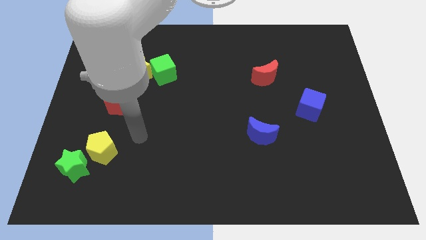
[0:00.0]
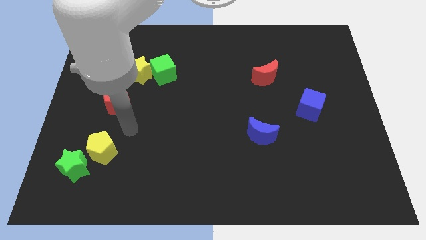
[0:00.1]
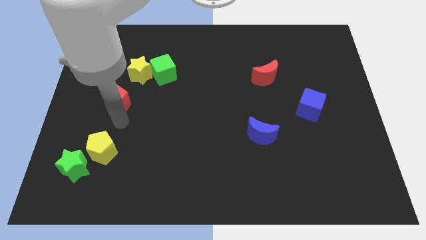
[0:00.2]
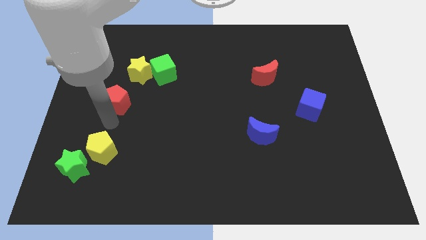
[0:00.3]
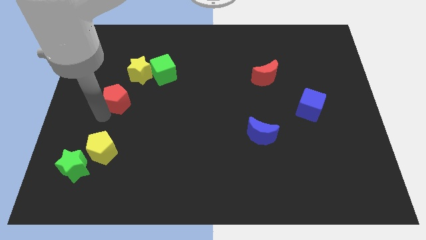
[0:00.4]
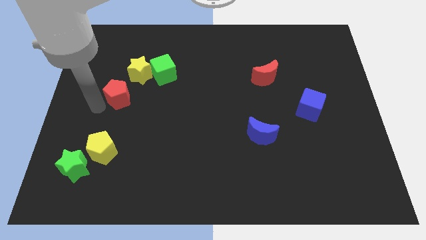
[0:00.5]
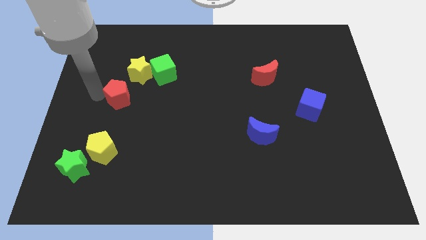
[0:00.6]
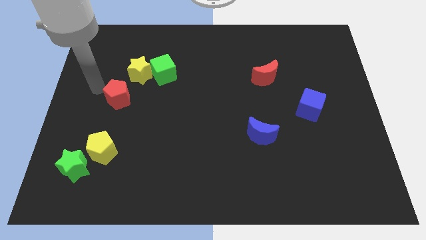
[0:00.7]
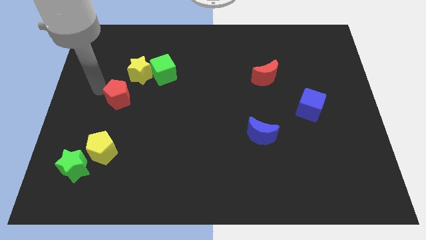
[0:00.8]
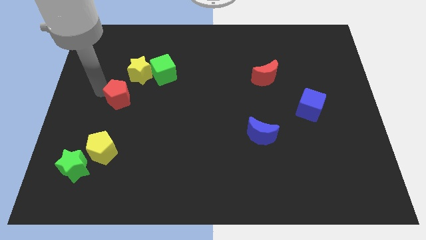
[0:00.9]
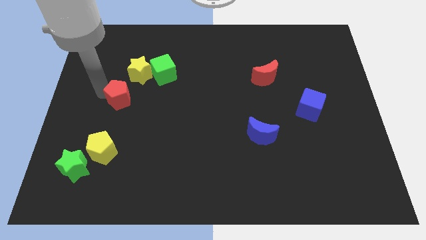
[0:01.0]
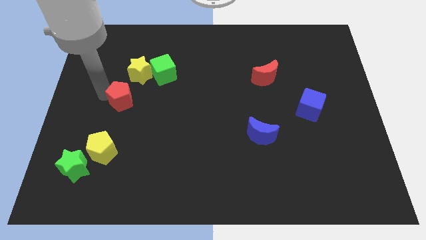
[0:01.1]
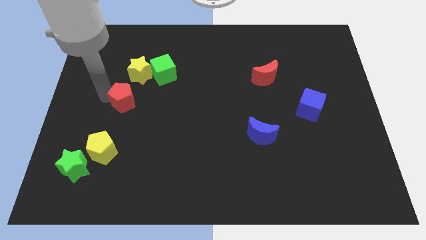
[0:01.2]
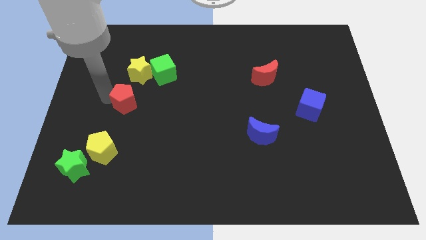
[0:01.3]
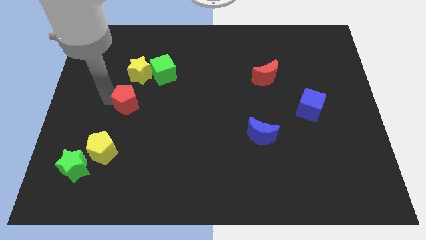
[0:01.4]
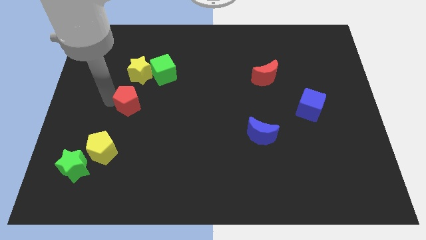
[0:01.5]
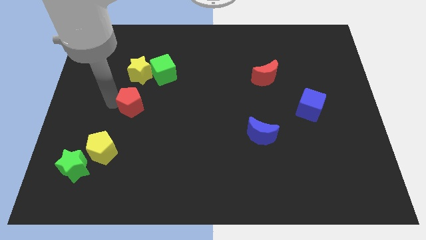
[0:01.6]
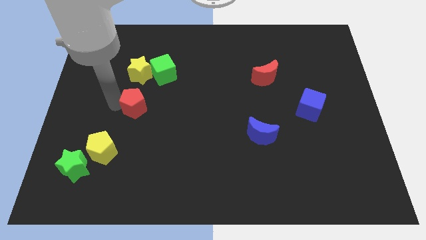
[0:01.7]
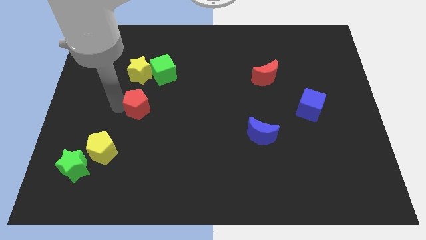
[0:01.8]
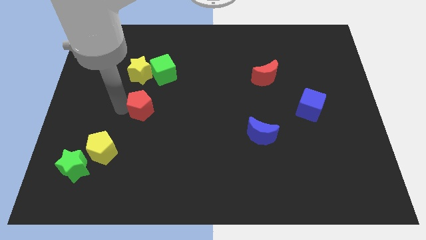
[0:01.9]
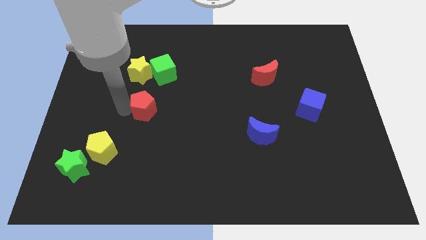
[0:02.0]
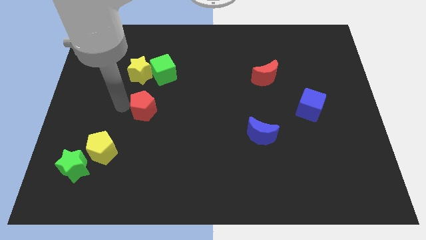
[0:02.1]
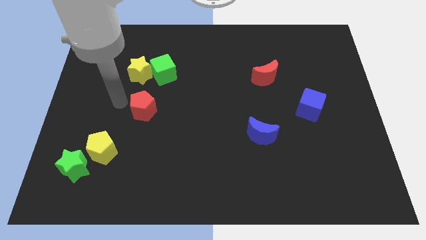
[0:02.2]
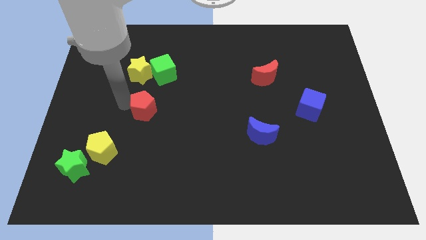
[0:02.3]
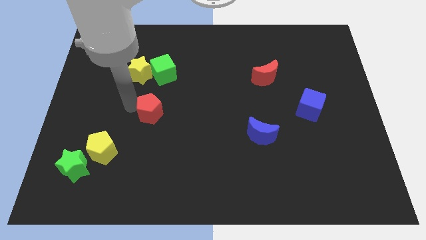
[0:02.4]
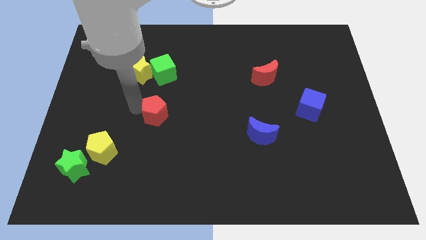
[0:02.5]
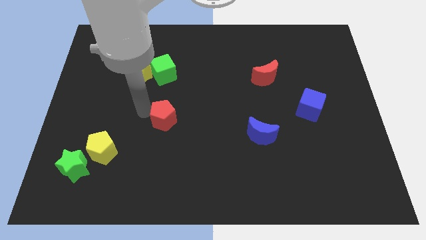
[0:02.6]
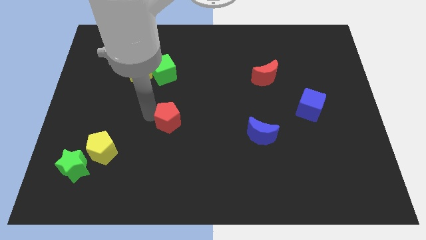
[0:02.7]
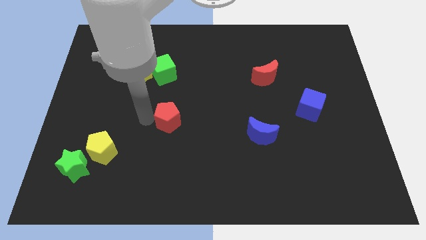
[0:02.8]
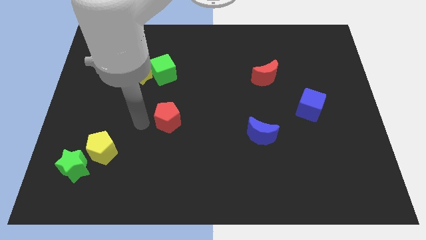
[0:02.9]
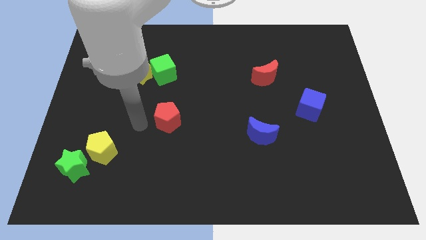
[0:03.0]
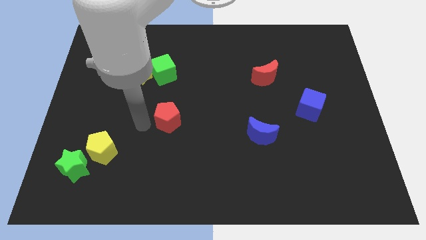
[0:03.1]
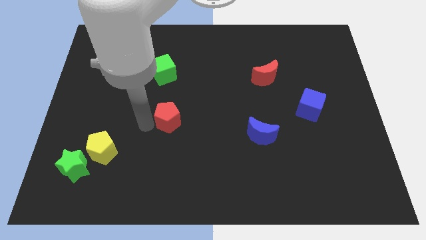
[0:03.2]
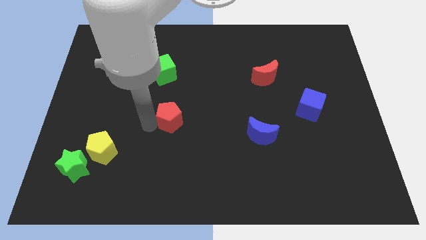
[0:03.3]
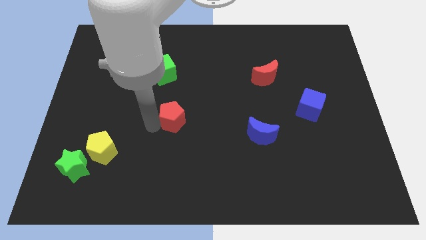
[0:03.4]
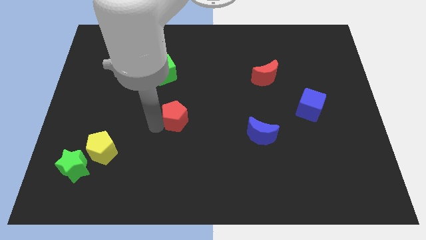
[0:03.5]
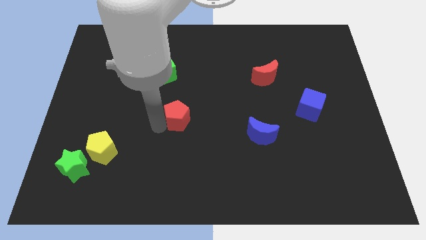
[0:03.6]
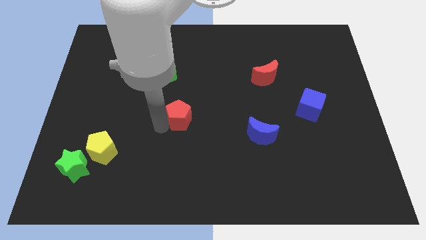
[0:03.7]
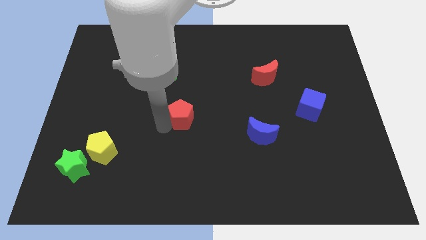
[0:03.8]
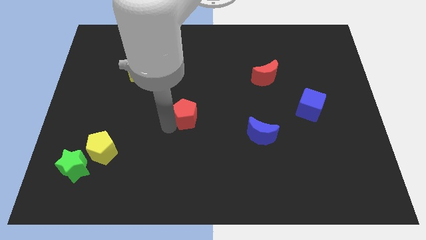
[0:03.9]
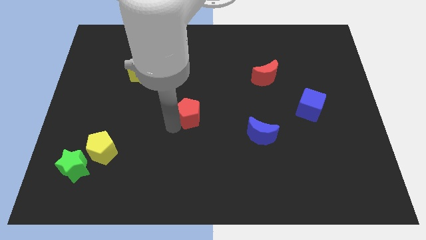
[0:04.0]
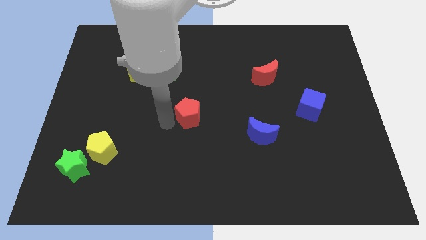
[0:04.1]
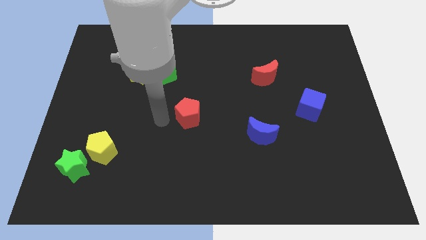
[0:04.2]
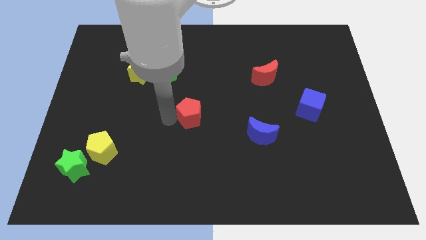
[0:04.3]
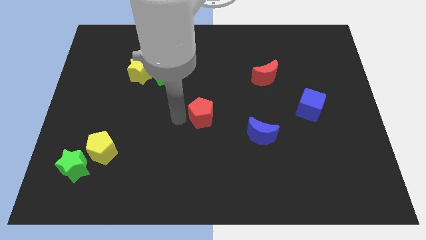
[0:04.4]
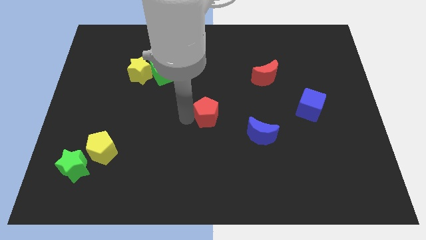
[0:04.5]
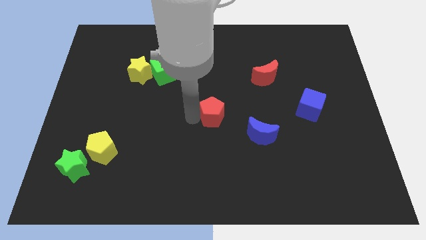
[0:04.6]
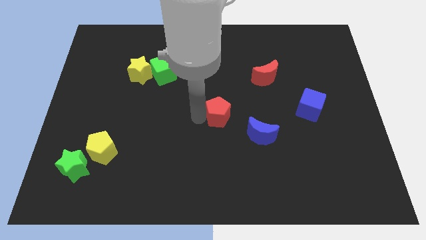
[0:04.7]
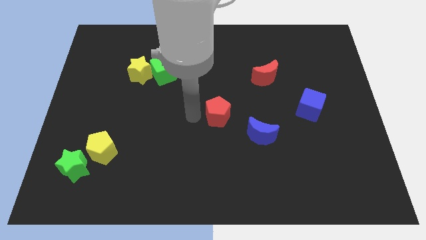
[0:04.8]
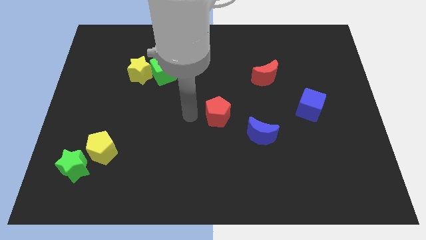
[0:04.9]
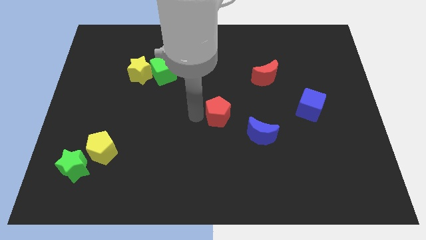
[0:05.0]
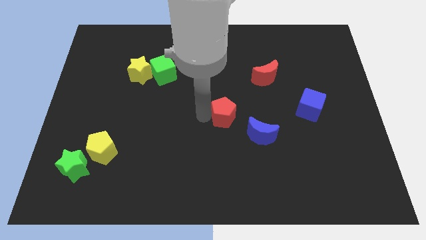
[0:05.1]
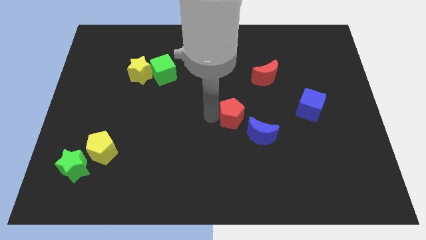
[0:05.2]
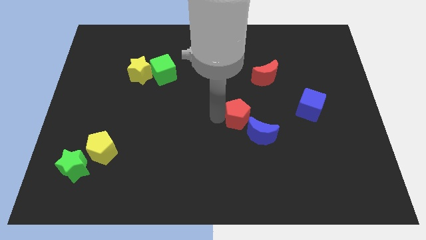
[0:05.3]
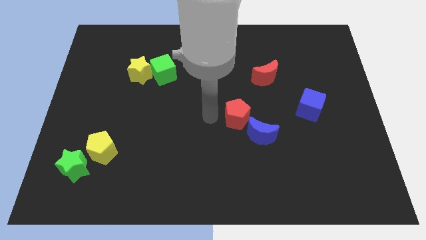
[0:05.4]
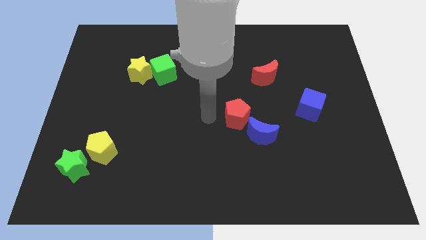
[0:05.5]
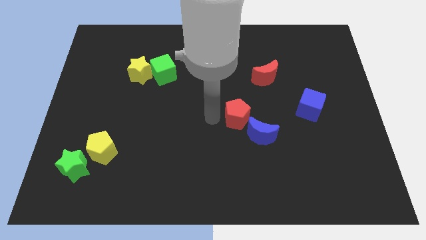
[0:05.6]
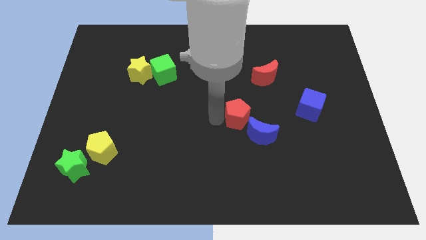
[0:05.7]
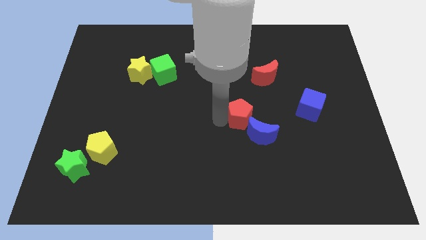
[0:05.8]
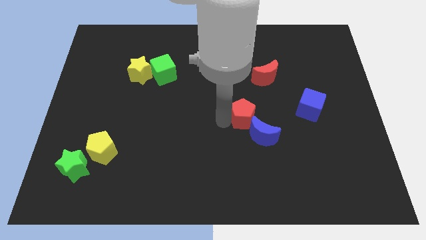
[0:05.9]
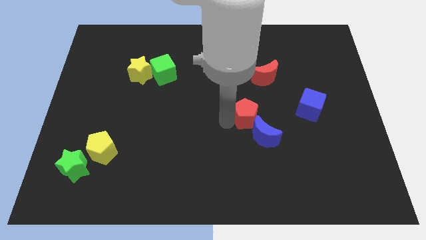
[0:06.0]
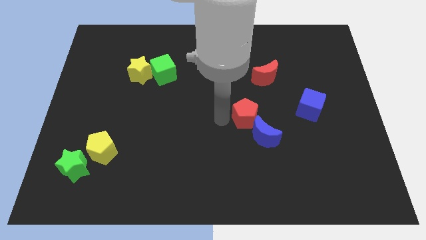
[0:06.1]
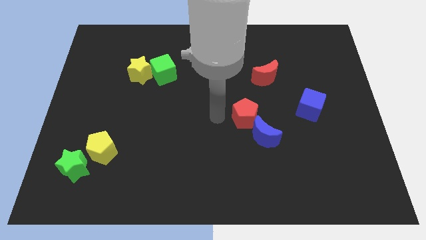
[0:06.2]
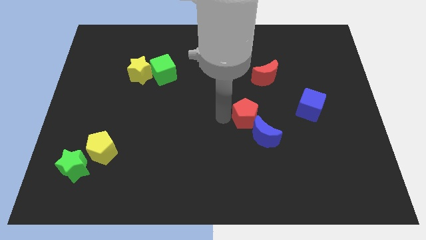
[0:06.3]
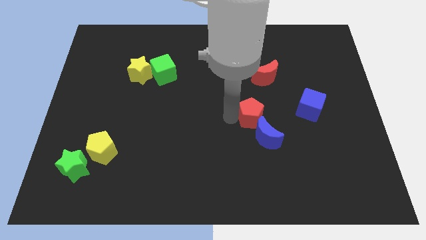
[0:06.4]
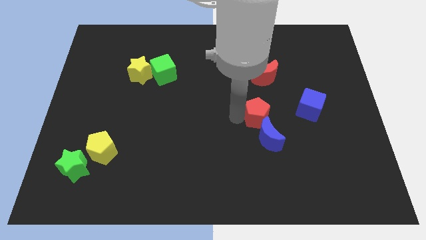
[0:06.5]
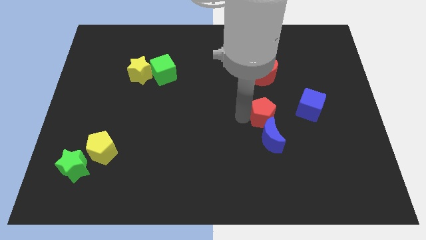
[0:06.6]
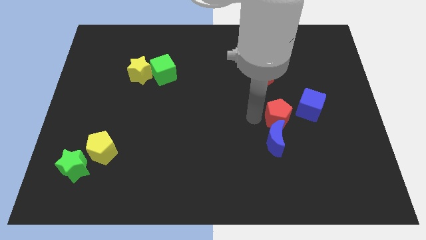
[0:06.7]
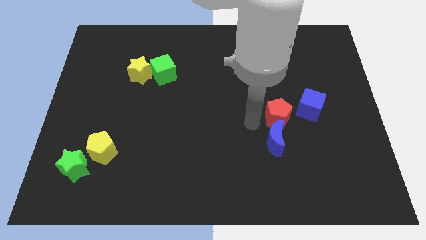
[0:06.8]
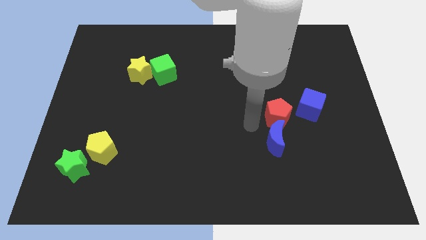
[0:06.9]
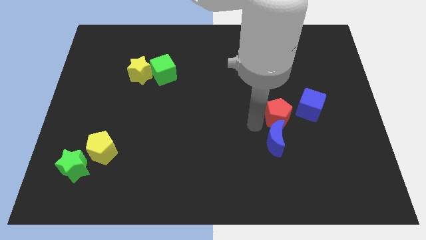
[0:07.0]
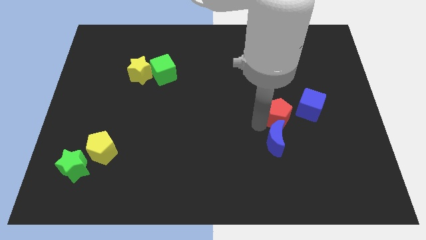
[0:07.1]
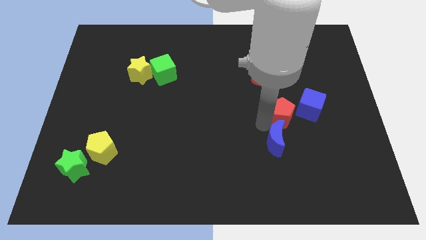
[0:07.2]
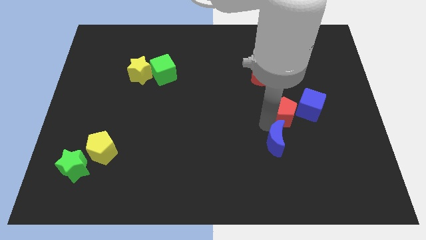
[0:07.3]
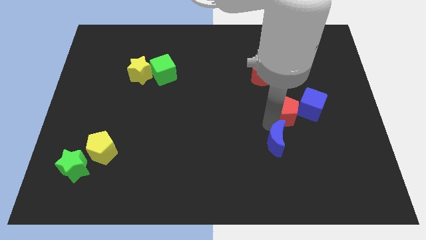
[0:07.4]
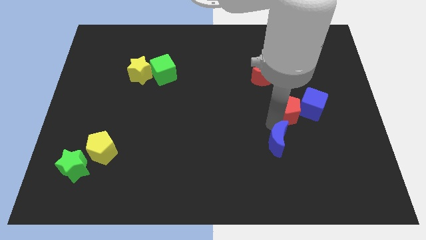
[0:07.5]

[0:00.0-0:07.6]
slide the red pentagon towards the blue cube
